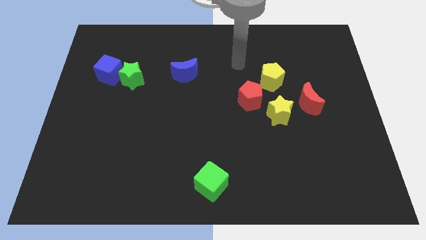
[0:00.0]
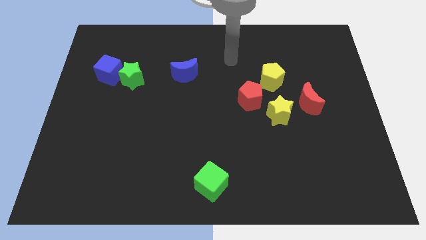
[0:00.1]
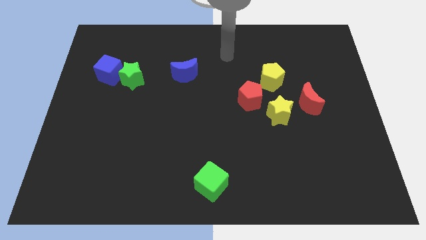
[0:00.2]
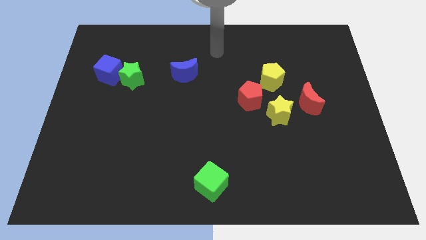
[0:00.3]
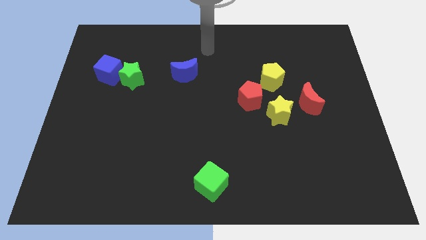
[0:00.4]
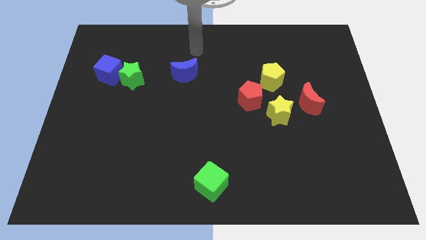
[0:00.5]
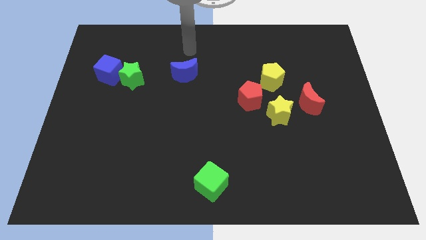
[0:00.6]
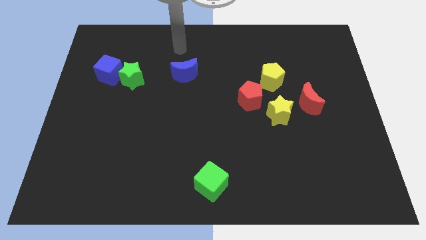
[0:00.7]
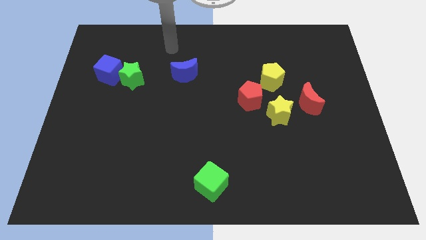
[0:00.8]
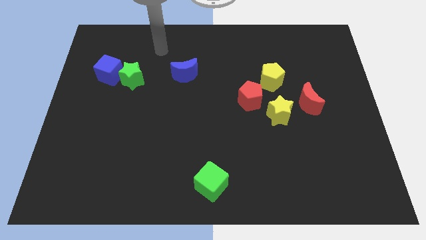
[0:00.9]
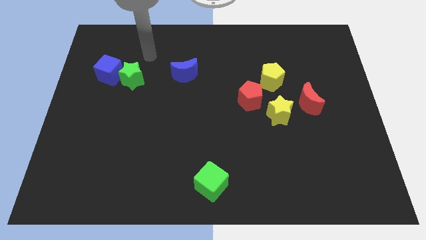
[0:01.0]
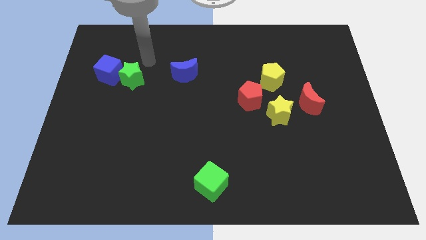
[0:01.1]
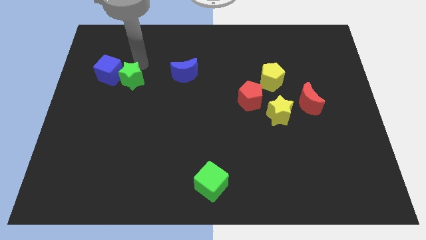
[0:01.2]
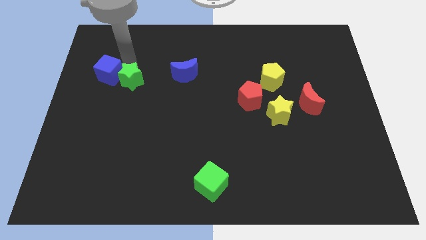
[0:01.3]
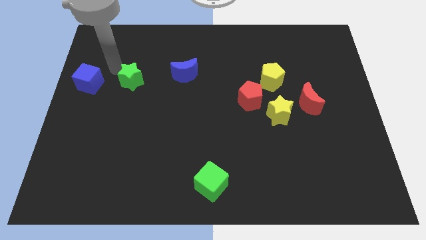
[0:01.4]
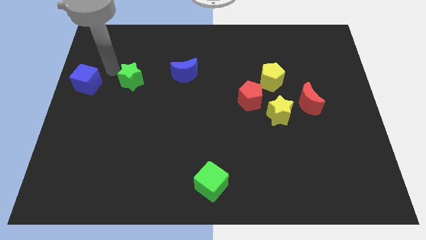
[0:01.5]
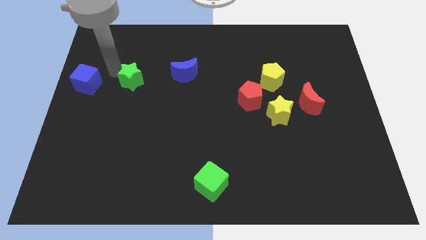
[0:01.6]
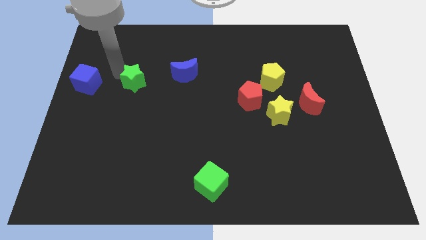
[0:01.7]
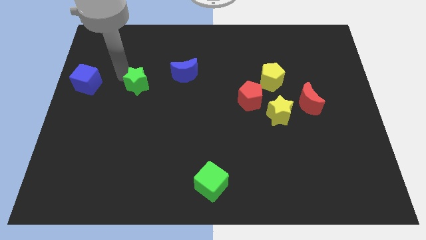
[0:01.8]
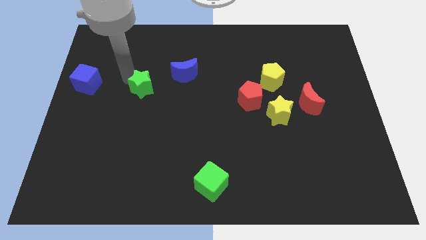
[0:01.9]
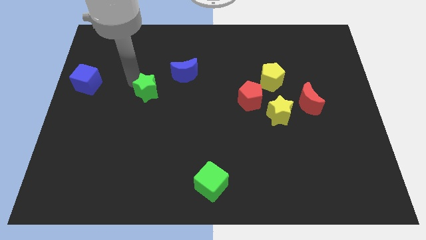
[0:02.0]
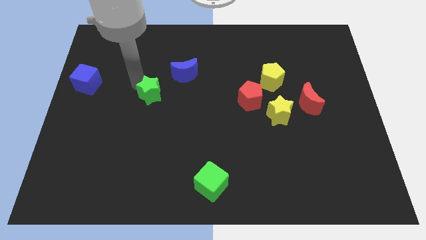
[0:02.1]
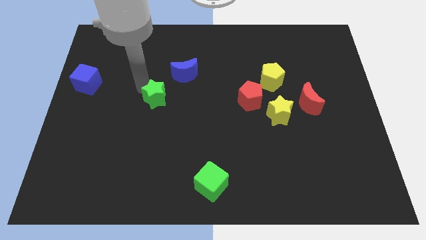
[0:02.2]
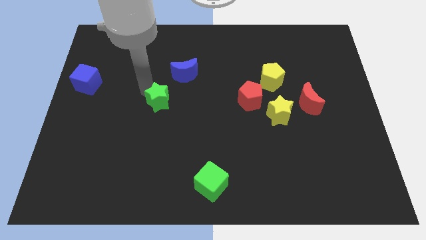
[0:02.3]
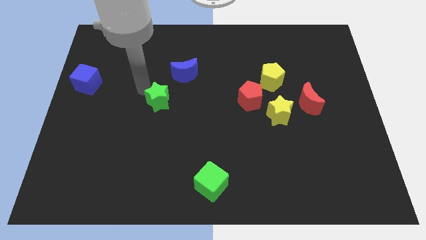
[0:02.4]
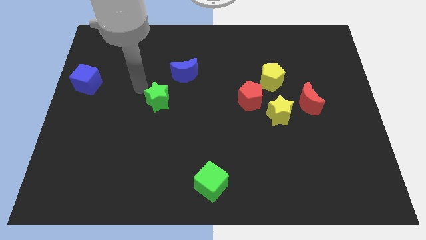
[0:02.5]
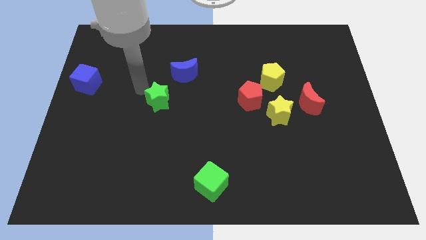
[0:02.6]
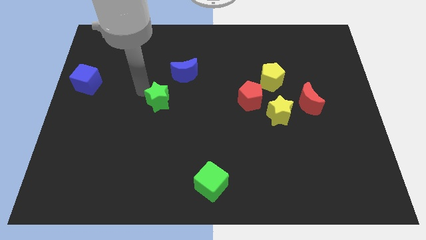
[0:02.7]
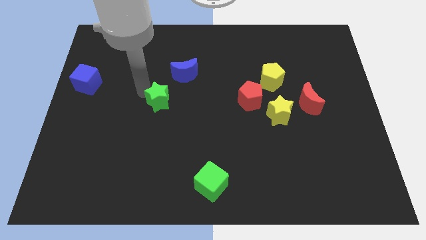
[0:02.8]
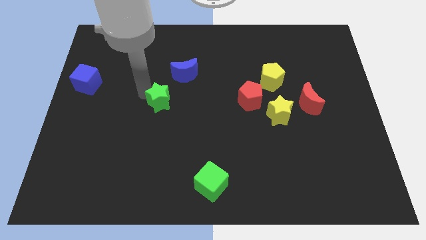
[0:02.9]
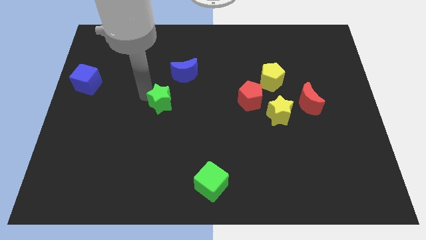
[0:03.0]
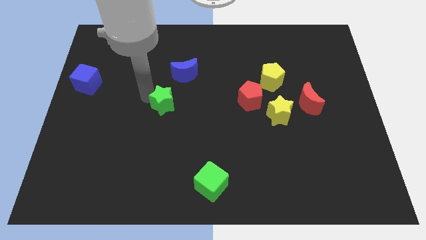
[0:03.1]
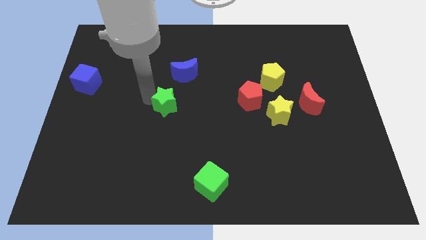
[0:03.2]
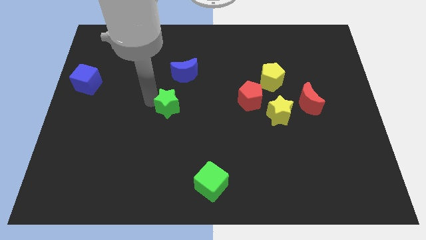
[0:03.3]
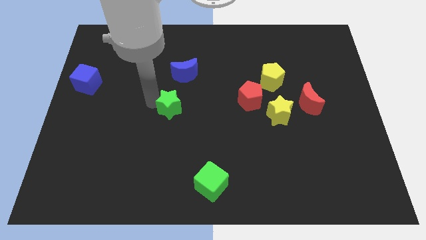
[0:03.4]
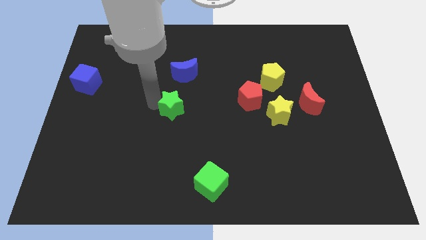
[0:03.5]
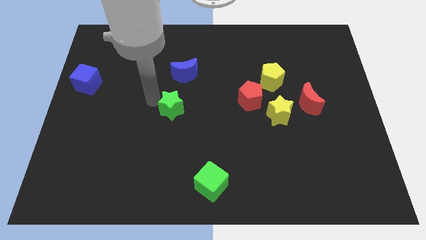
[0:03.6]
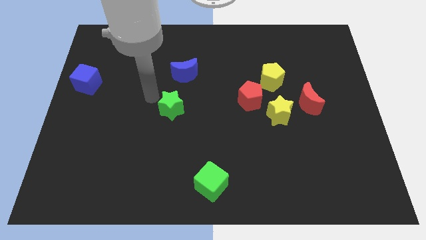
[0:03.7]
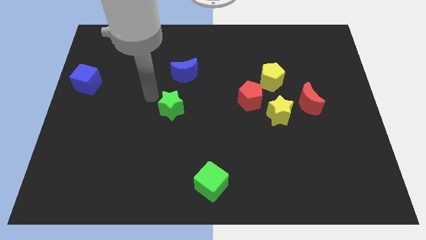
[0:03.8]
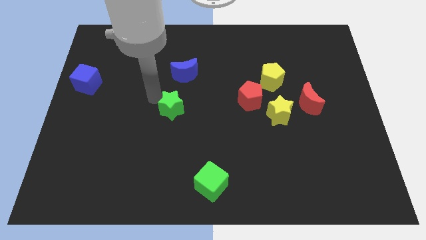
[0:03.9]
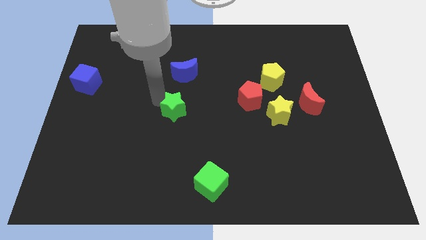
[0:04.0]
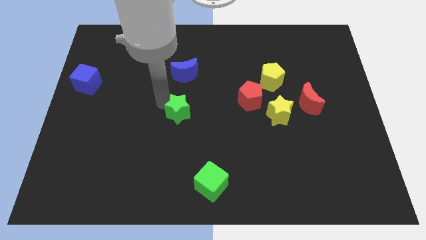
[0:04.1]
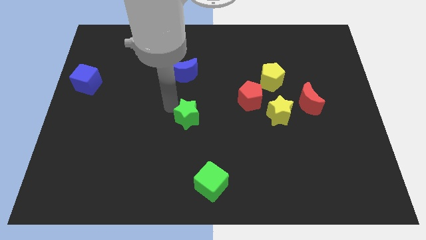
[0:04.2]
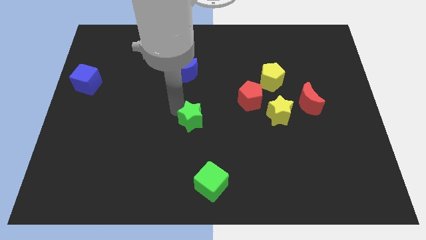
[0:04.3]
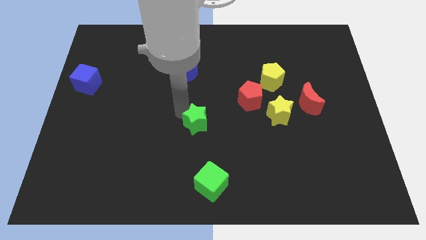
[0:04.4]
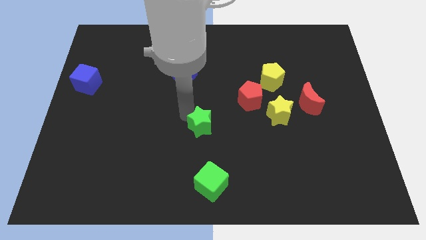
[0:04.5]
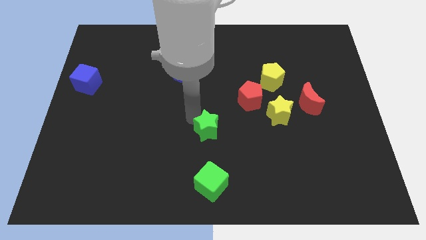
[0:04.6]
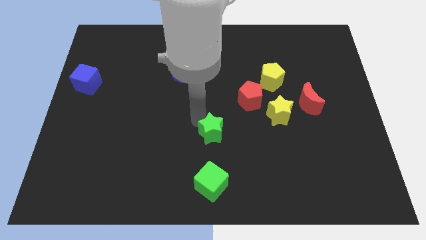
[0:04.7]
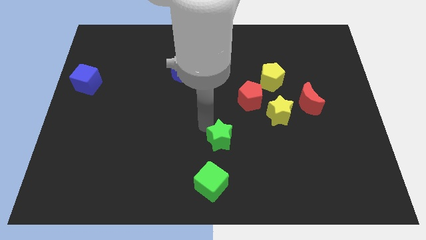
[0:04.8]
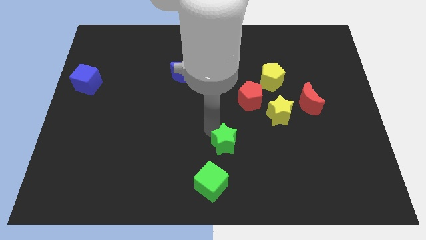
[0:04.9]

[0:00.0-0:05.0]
push the green star to the top right side of the green cube

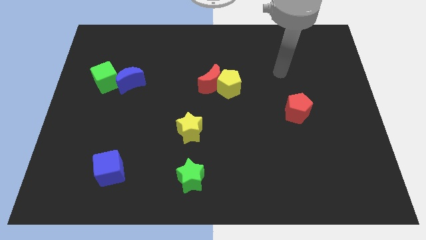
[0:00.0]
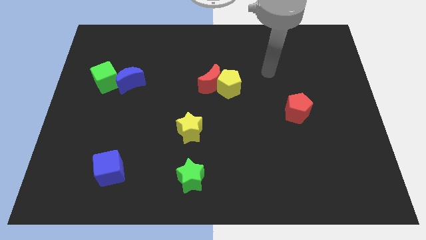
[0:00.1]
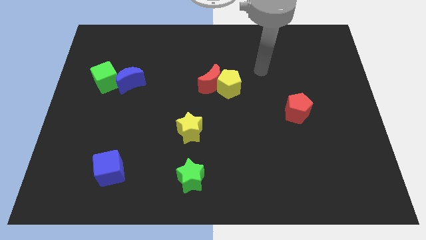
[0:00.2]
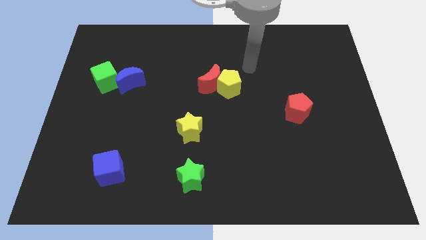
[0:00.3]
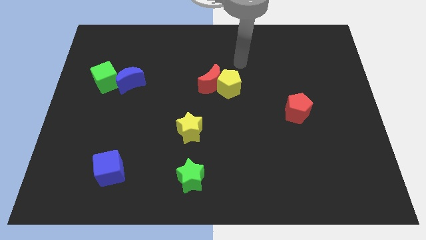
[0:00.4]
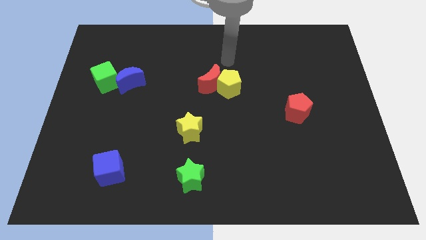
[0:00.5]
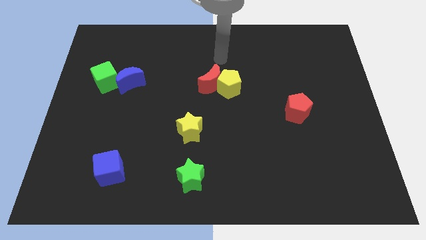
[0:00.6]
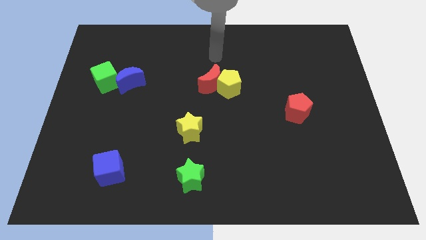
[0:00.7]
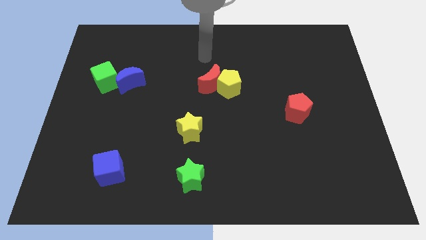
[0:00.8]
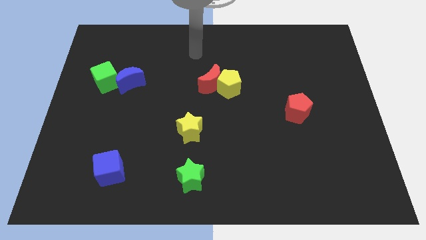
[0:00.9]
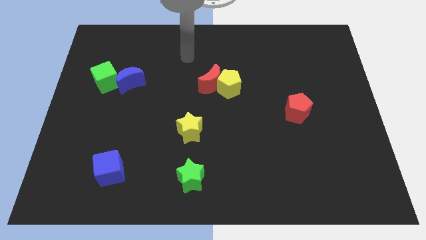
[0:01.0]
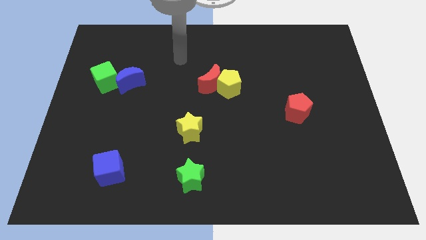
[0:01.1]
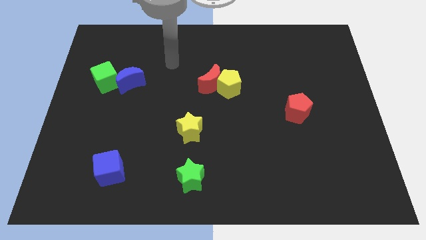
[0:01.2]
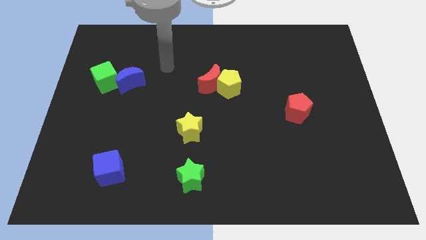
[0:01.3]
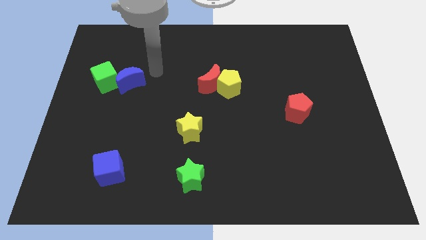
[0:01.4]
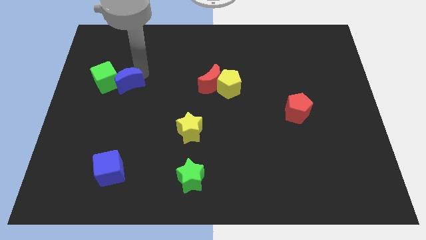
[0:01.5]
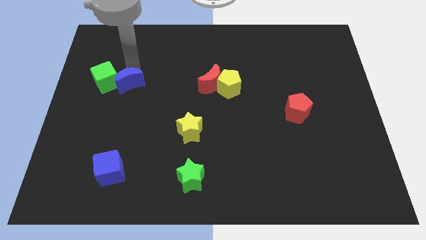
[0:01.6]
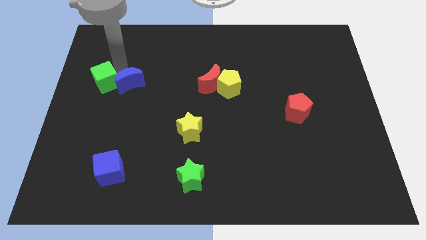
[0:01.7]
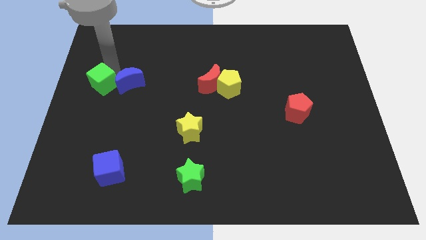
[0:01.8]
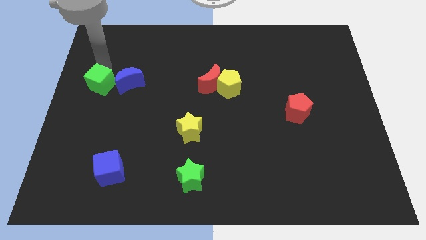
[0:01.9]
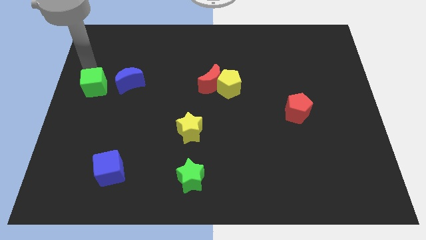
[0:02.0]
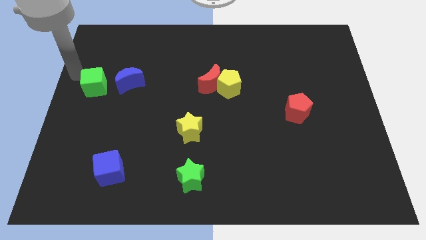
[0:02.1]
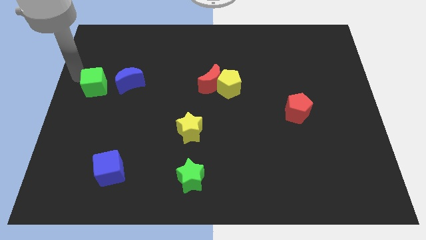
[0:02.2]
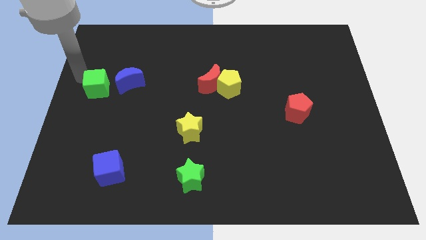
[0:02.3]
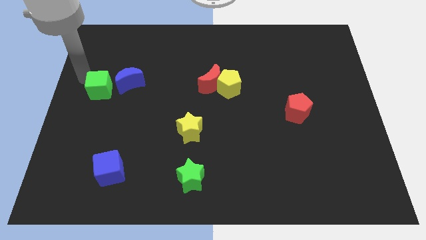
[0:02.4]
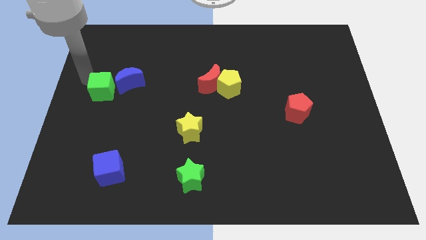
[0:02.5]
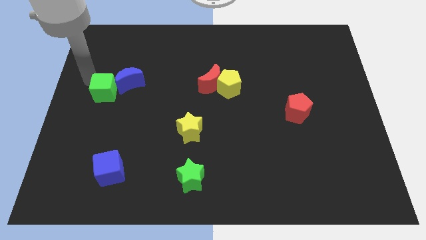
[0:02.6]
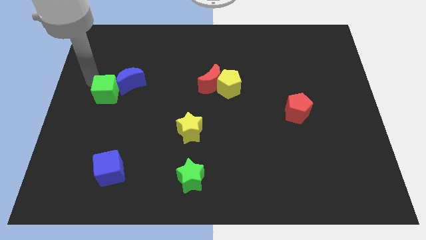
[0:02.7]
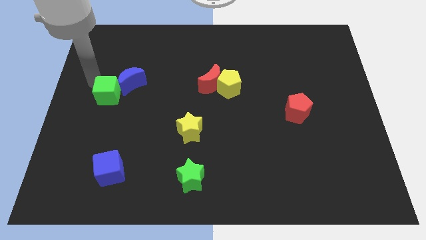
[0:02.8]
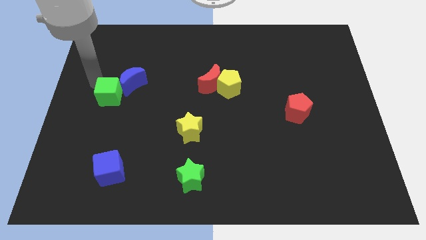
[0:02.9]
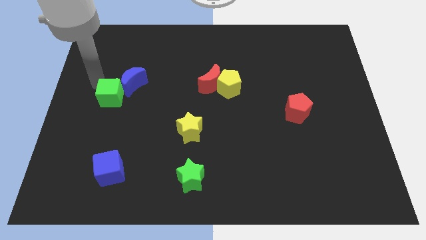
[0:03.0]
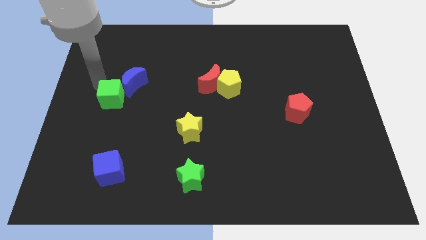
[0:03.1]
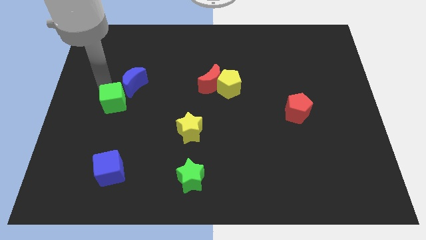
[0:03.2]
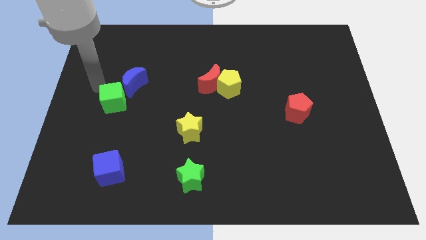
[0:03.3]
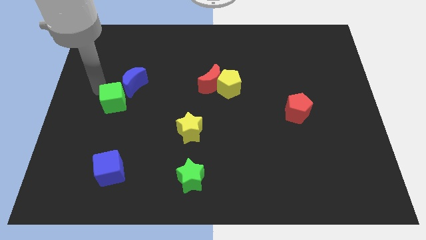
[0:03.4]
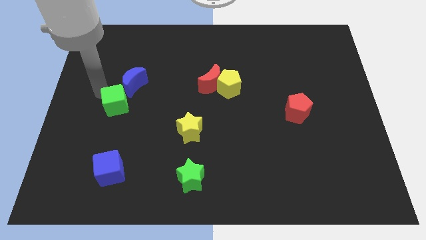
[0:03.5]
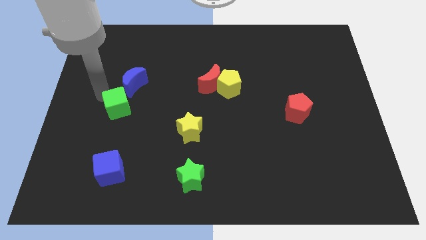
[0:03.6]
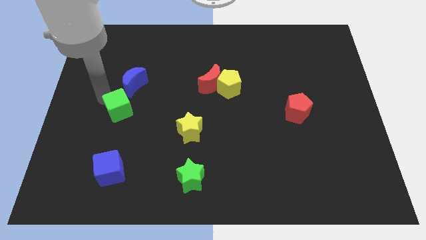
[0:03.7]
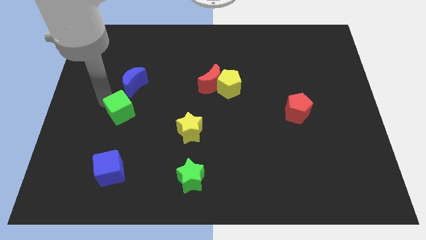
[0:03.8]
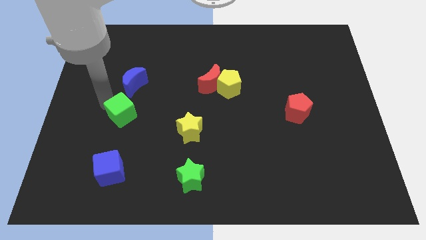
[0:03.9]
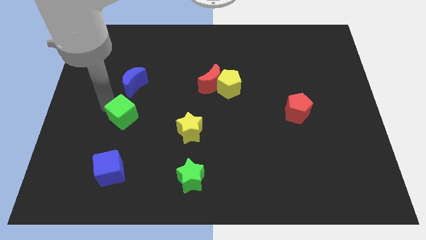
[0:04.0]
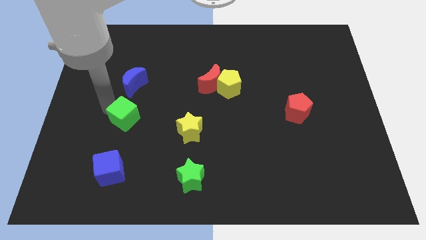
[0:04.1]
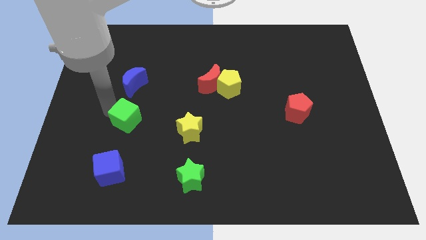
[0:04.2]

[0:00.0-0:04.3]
slide the green cube to the left side of the yellow star
